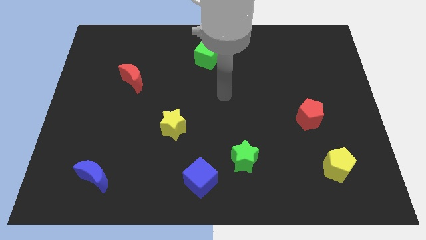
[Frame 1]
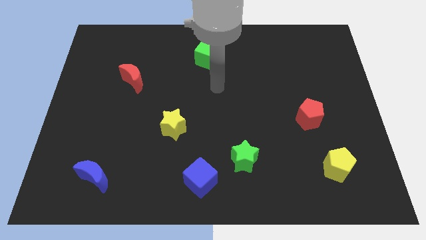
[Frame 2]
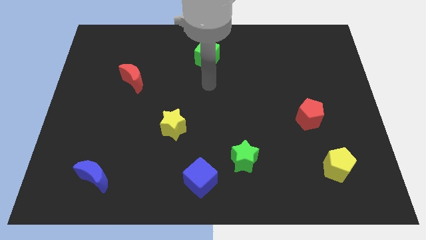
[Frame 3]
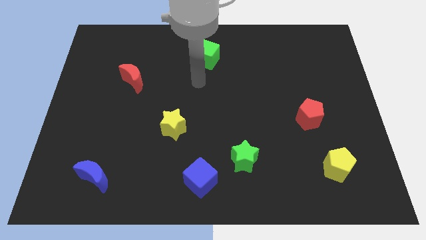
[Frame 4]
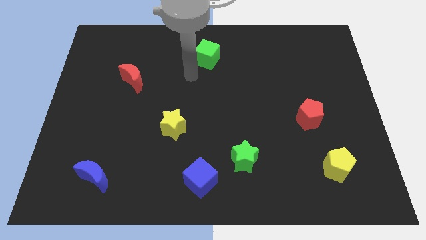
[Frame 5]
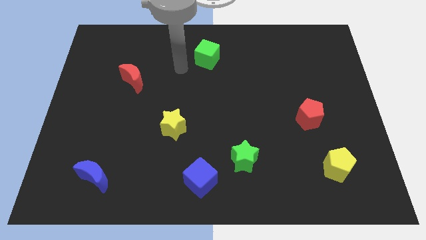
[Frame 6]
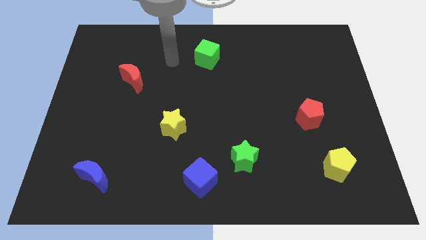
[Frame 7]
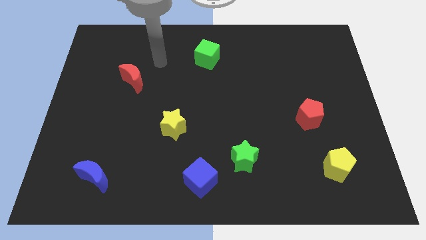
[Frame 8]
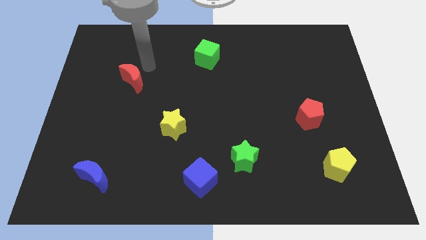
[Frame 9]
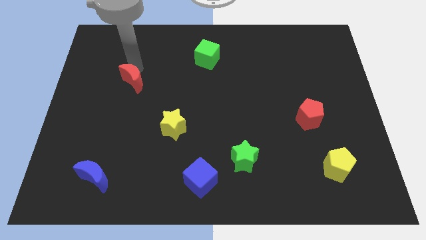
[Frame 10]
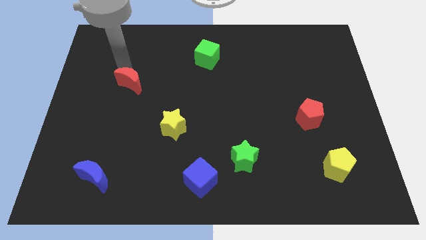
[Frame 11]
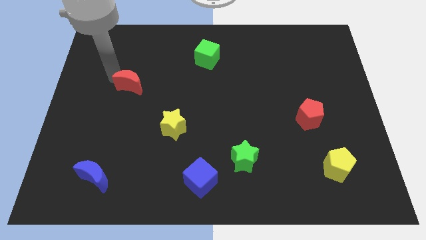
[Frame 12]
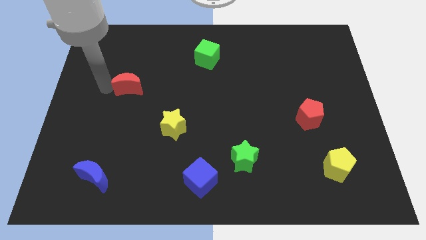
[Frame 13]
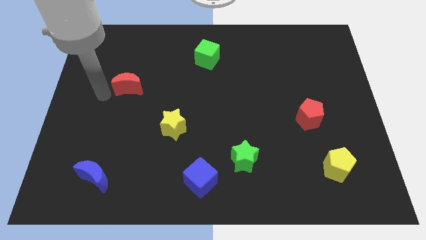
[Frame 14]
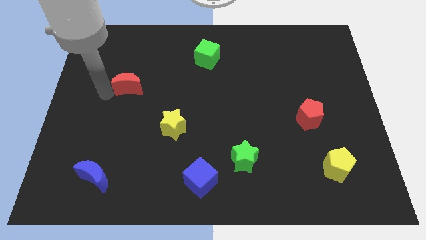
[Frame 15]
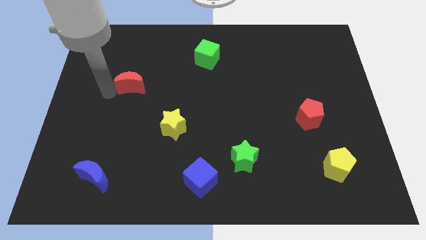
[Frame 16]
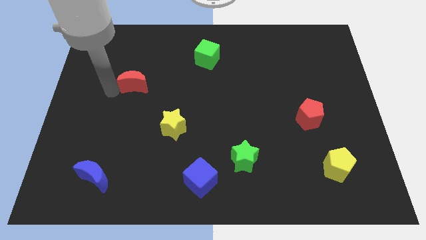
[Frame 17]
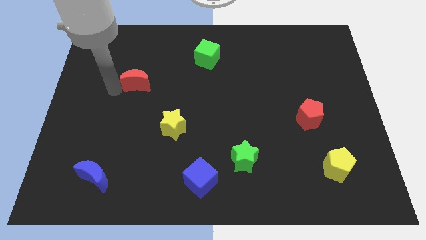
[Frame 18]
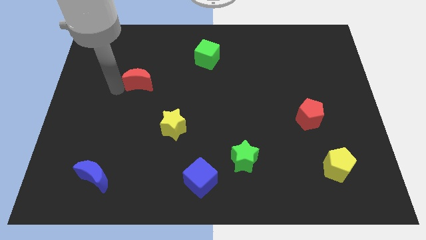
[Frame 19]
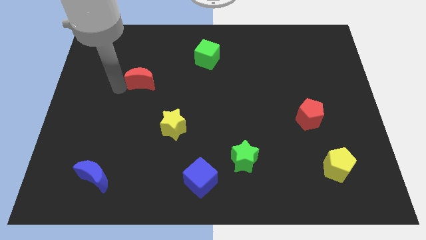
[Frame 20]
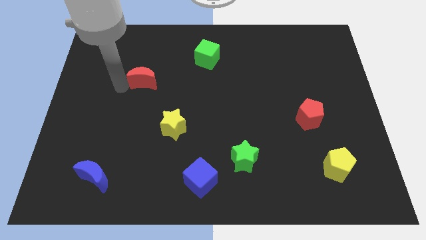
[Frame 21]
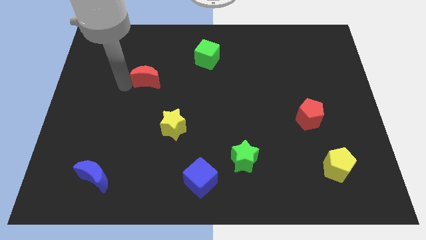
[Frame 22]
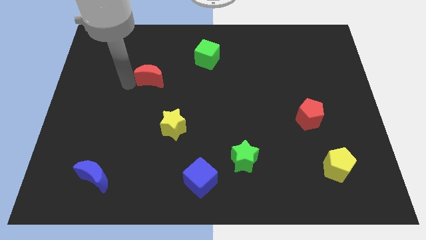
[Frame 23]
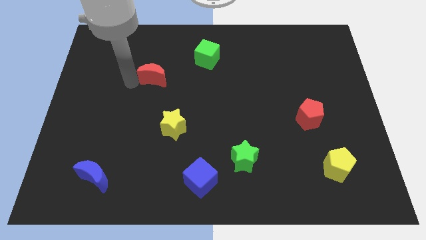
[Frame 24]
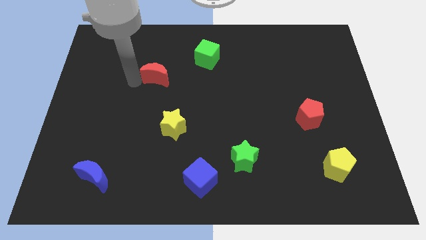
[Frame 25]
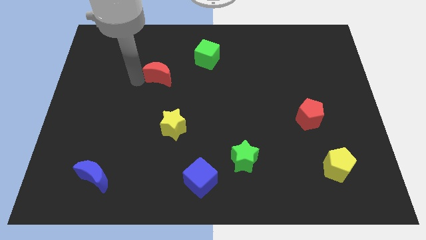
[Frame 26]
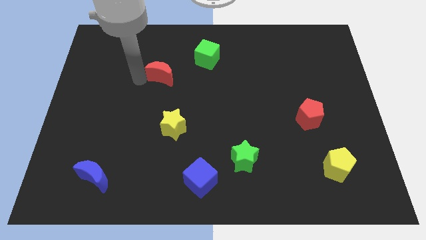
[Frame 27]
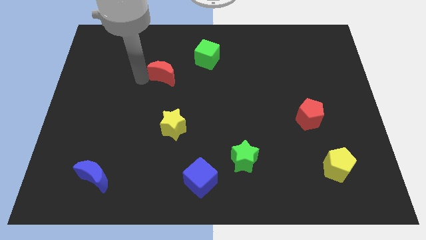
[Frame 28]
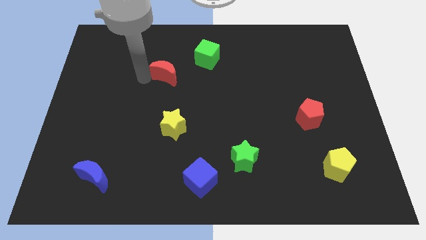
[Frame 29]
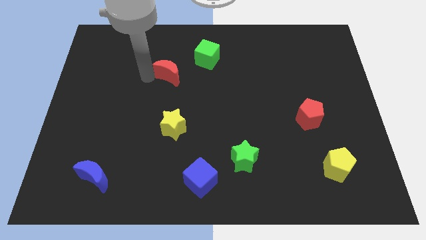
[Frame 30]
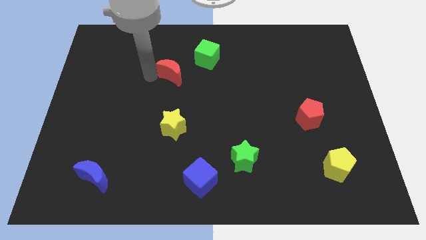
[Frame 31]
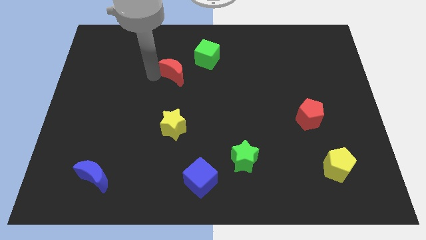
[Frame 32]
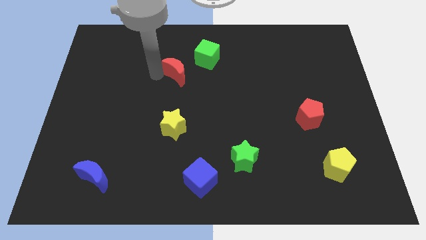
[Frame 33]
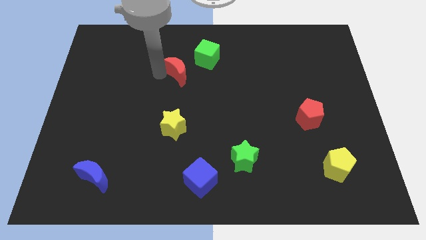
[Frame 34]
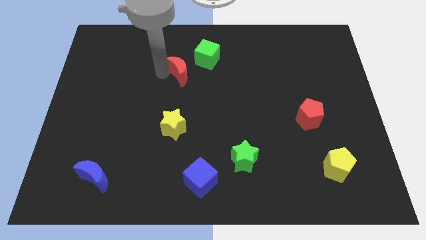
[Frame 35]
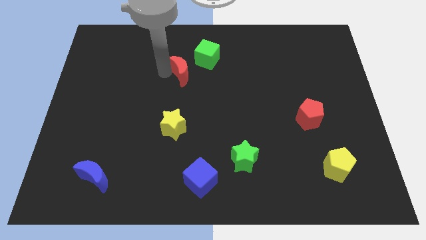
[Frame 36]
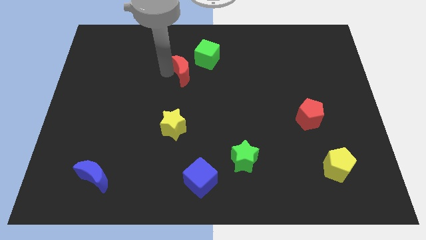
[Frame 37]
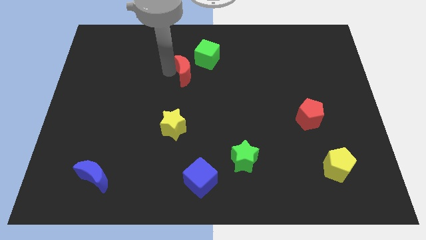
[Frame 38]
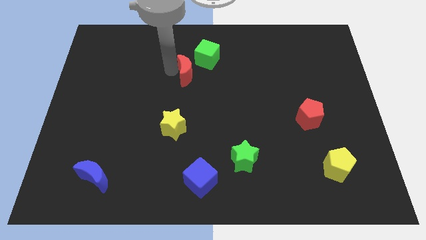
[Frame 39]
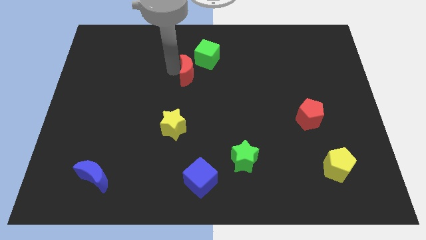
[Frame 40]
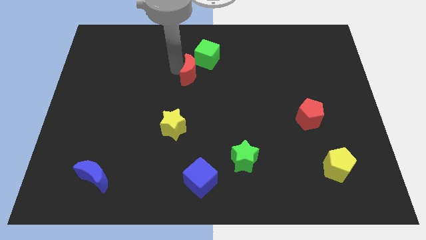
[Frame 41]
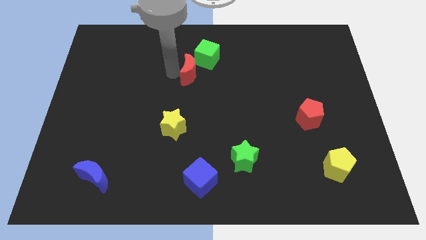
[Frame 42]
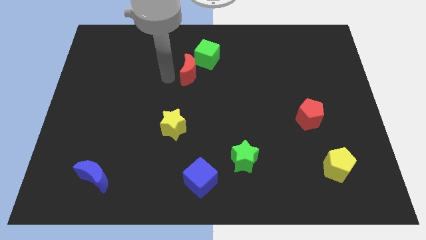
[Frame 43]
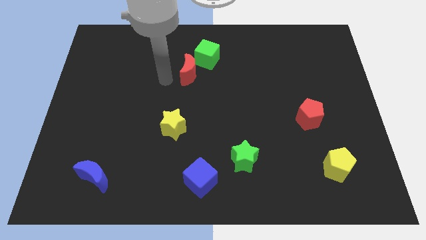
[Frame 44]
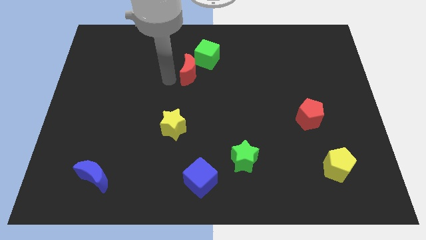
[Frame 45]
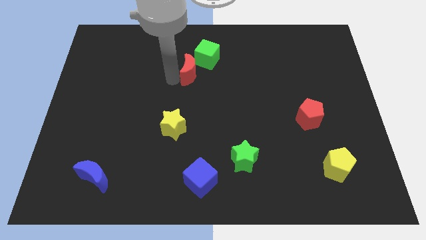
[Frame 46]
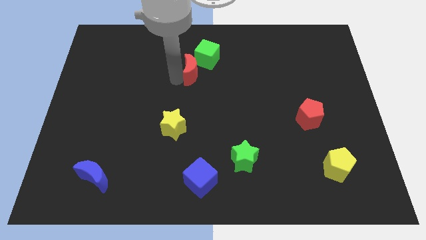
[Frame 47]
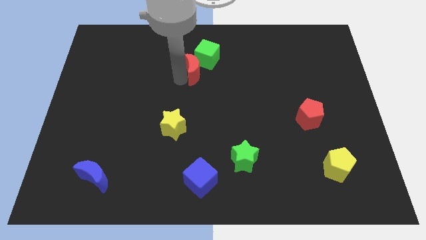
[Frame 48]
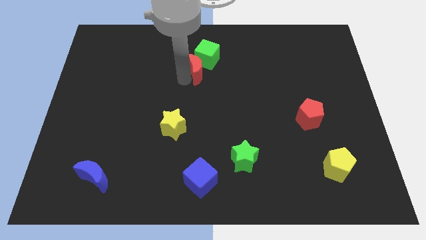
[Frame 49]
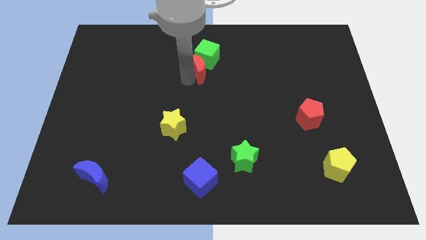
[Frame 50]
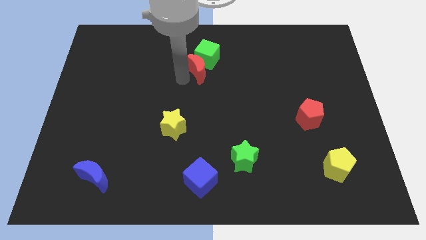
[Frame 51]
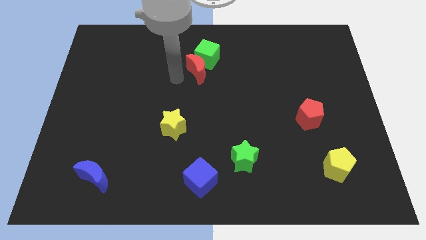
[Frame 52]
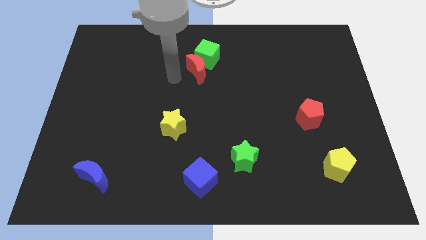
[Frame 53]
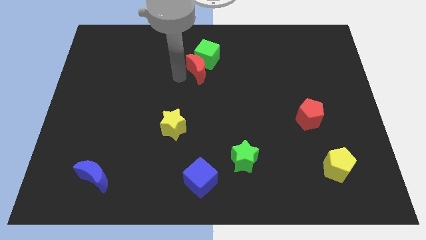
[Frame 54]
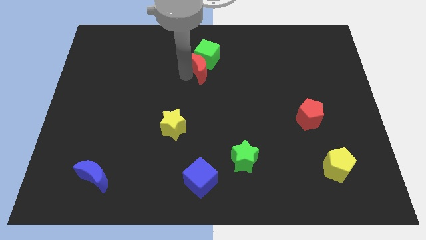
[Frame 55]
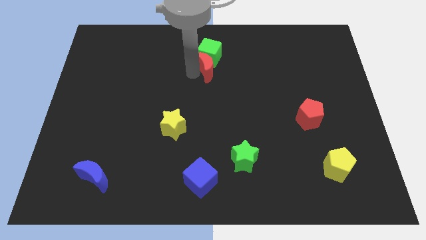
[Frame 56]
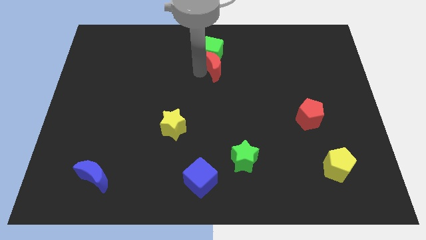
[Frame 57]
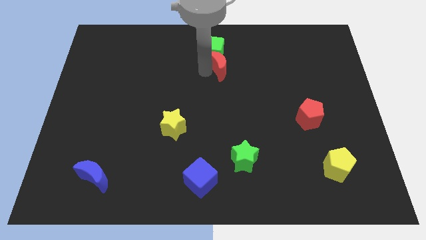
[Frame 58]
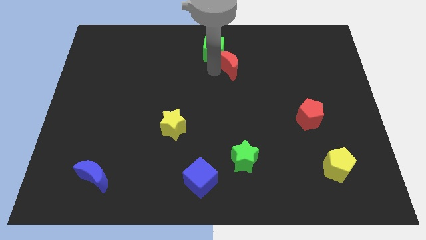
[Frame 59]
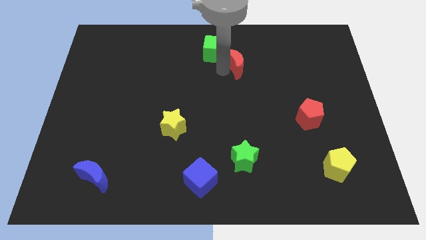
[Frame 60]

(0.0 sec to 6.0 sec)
push the red moon just right of the green cube

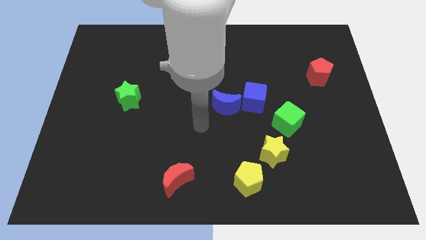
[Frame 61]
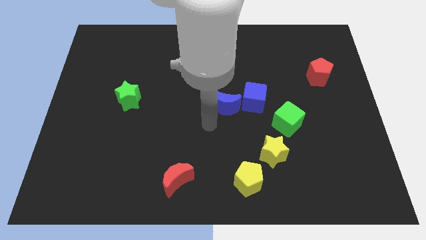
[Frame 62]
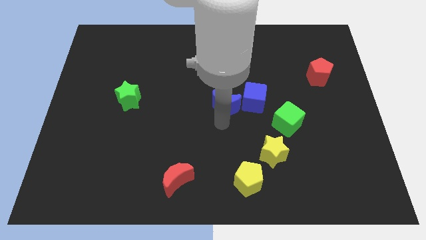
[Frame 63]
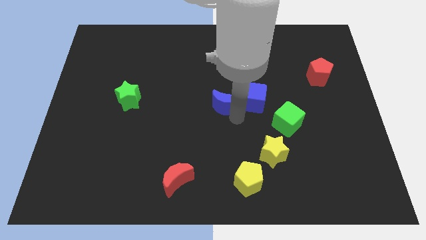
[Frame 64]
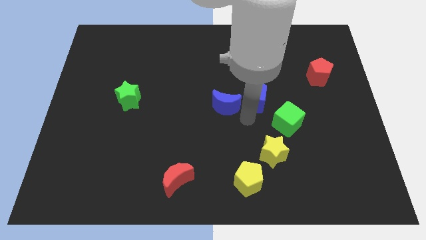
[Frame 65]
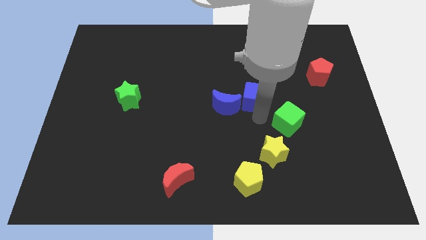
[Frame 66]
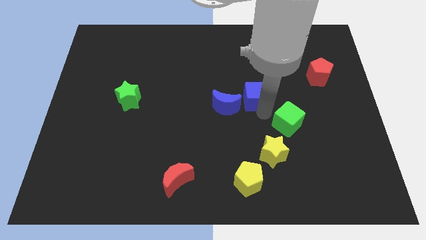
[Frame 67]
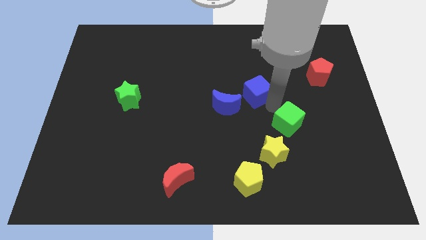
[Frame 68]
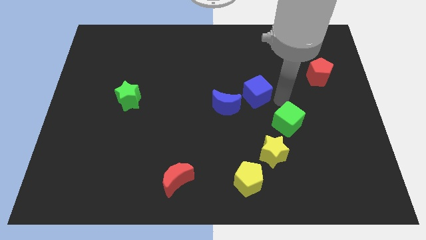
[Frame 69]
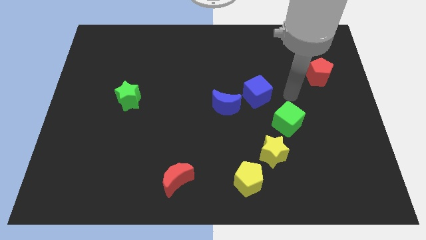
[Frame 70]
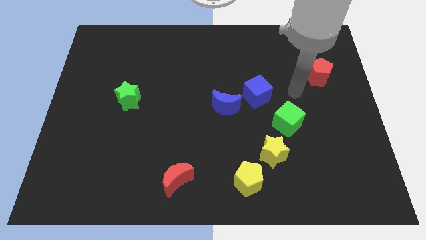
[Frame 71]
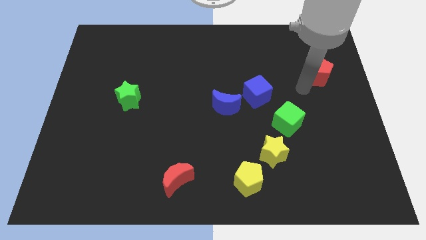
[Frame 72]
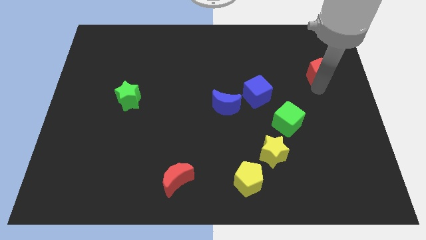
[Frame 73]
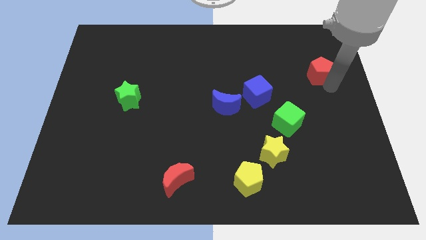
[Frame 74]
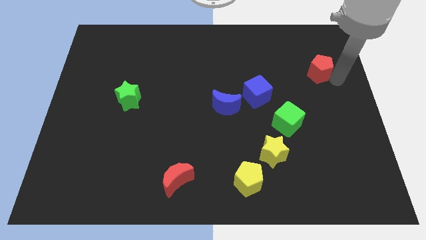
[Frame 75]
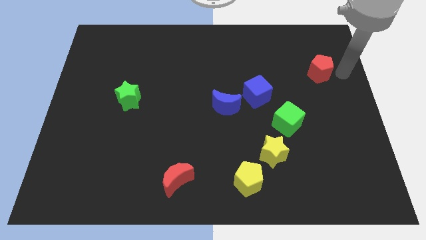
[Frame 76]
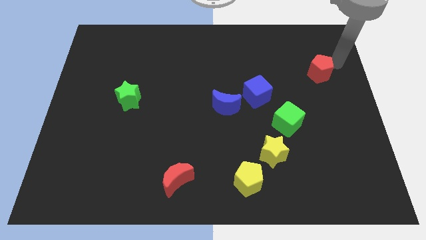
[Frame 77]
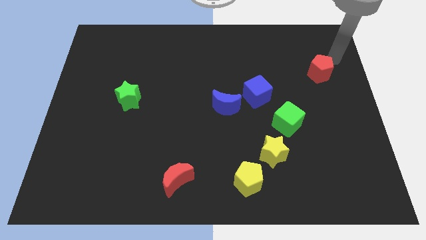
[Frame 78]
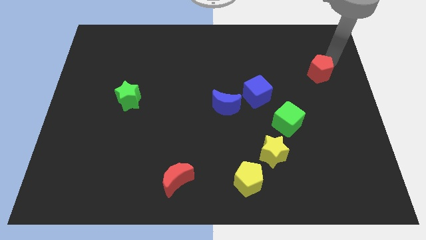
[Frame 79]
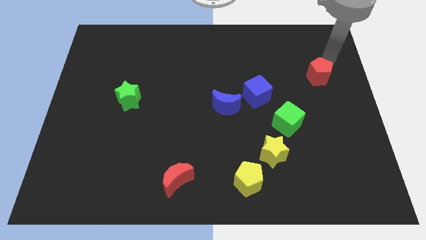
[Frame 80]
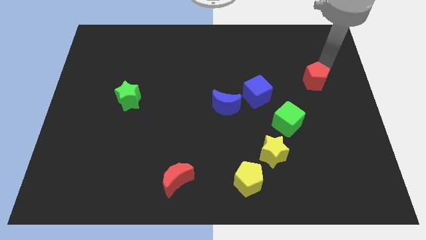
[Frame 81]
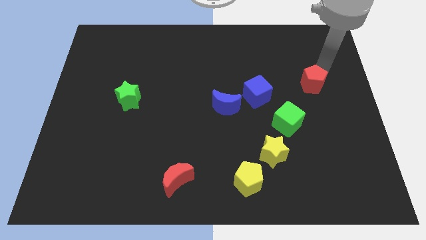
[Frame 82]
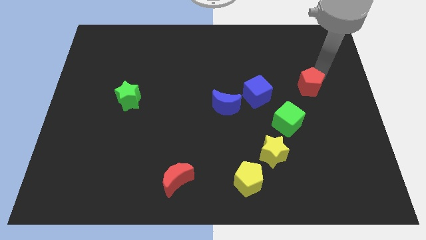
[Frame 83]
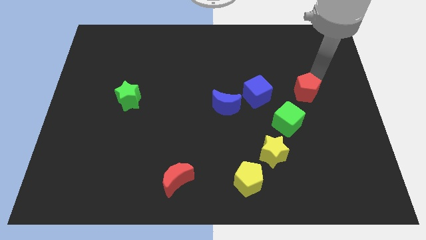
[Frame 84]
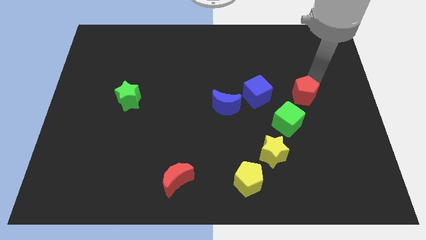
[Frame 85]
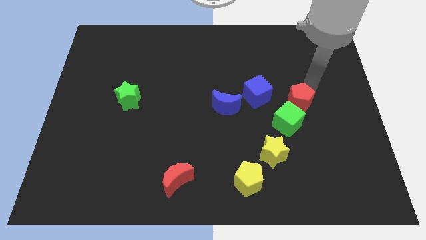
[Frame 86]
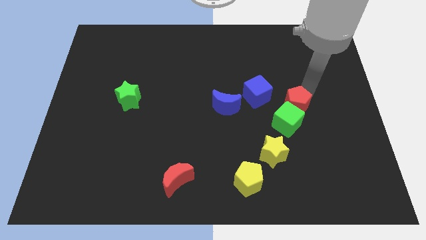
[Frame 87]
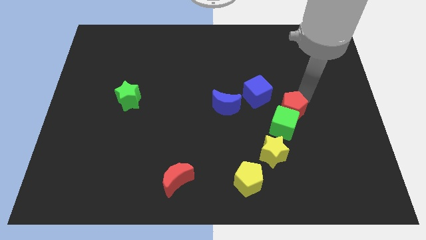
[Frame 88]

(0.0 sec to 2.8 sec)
slide the red pentagon to the right side of the blue moon
